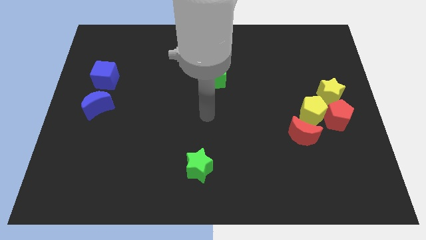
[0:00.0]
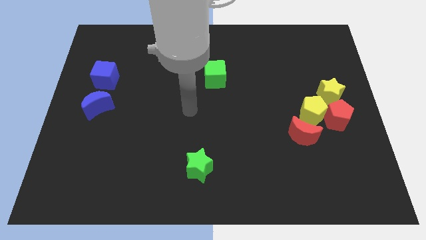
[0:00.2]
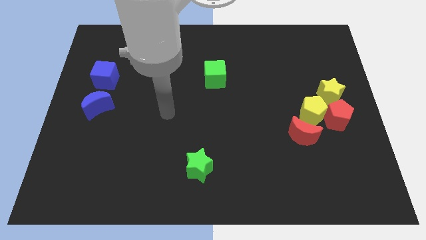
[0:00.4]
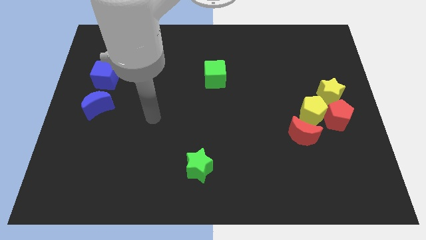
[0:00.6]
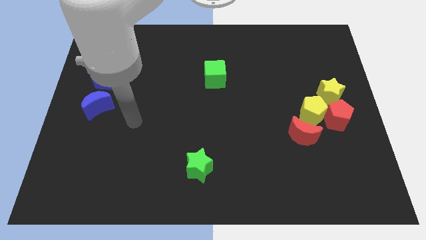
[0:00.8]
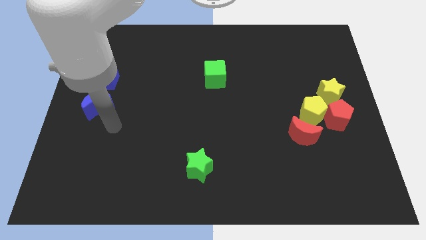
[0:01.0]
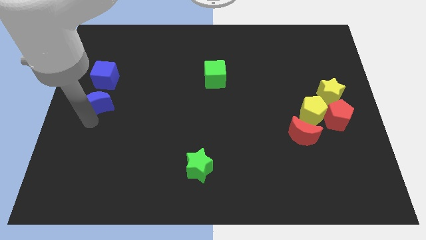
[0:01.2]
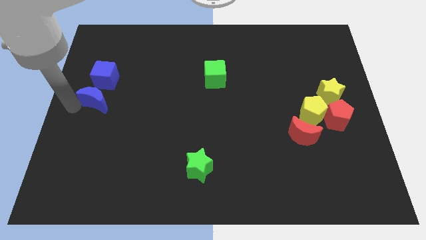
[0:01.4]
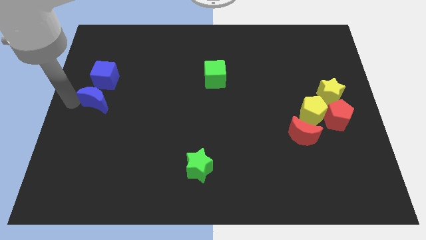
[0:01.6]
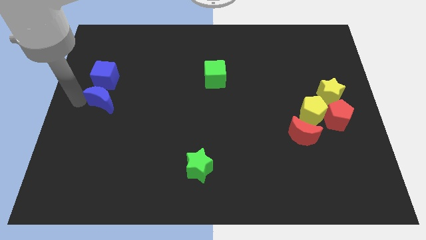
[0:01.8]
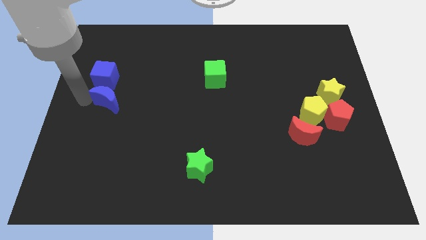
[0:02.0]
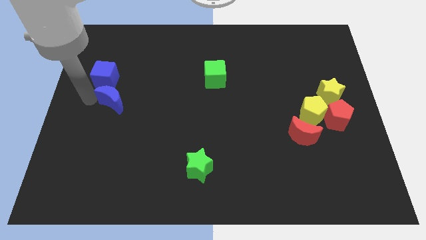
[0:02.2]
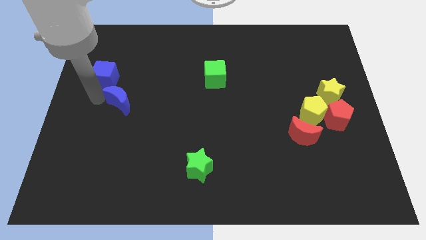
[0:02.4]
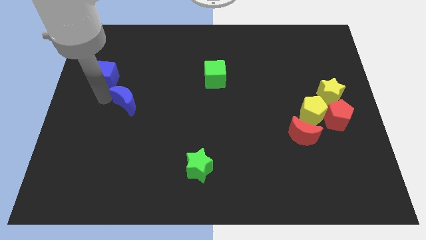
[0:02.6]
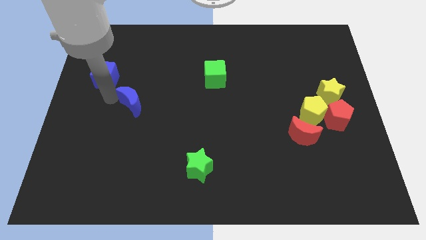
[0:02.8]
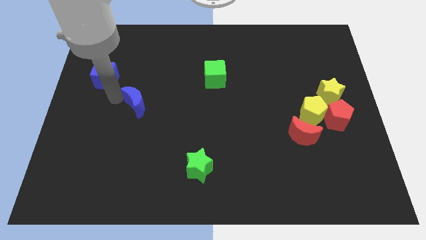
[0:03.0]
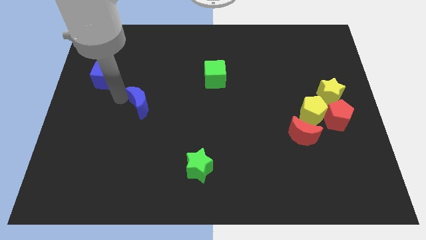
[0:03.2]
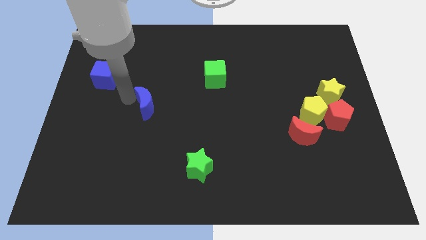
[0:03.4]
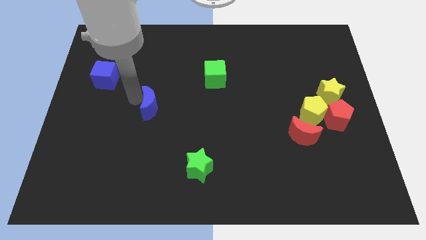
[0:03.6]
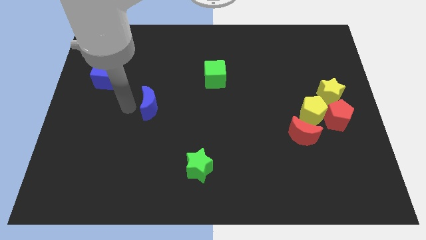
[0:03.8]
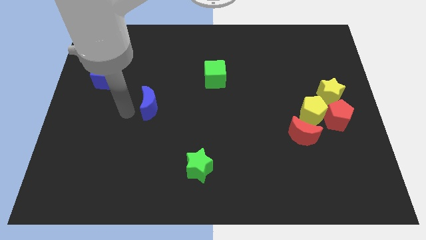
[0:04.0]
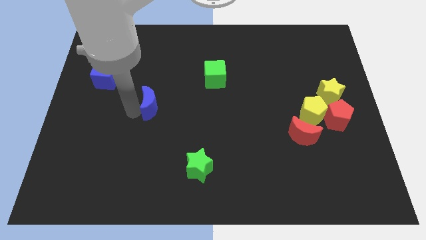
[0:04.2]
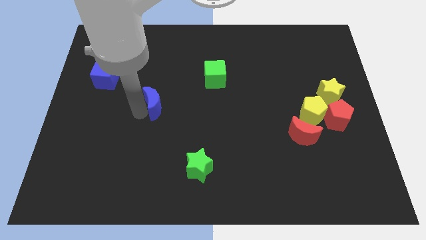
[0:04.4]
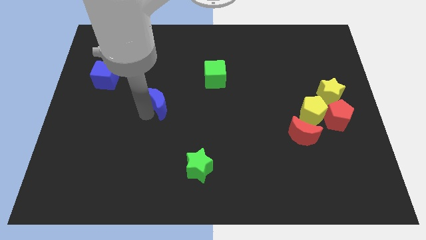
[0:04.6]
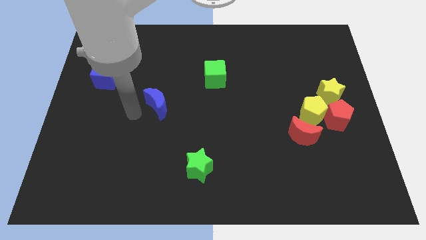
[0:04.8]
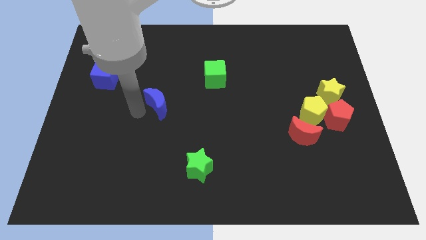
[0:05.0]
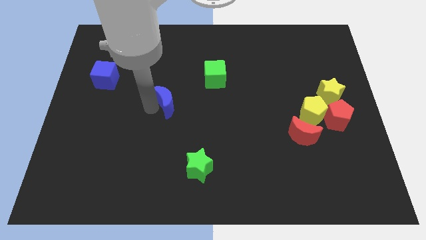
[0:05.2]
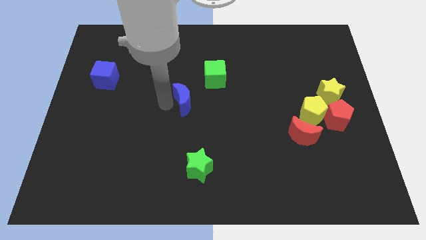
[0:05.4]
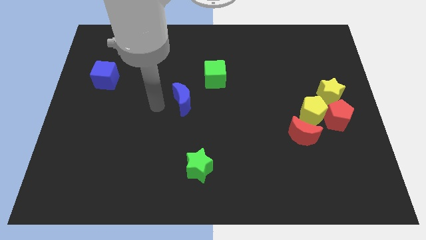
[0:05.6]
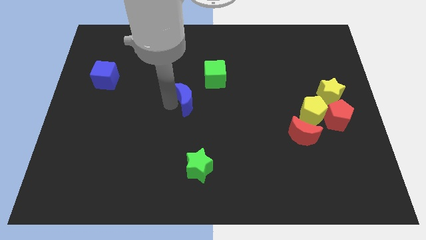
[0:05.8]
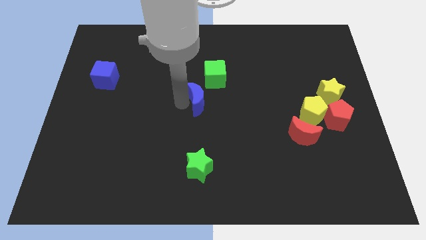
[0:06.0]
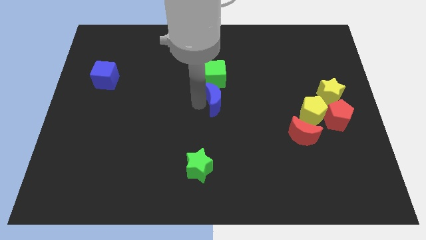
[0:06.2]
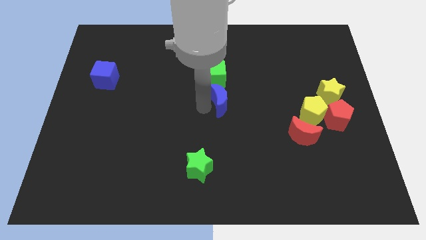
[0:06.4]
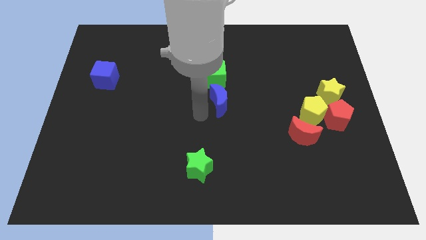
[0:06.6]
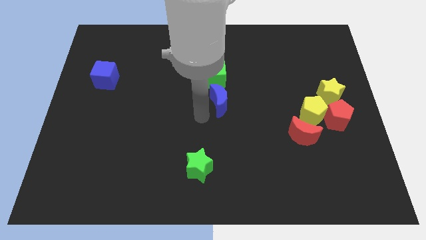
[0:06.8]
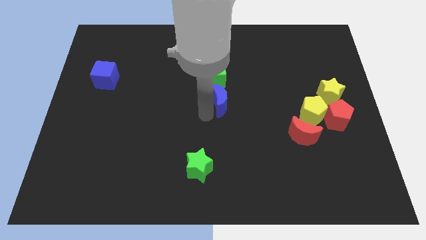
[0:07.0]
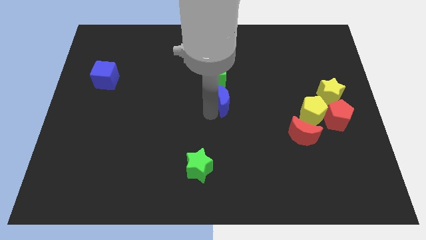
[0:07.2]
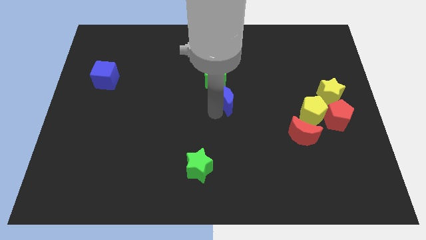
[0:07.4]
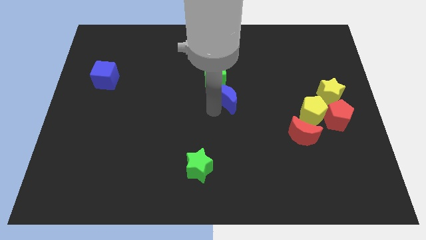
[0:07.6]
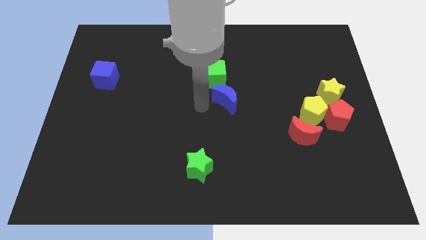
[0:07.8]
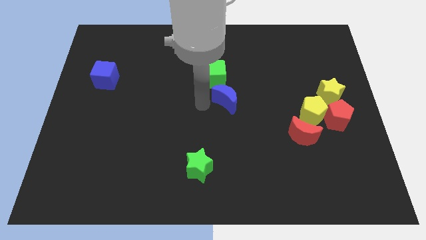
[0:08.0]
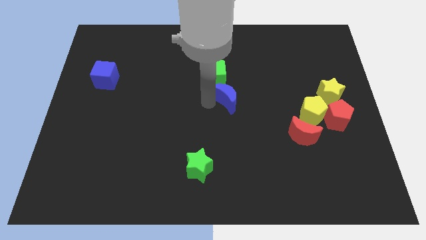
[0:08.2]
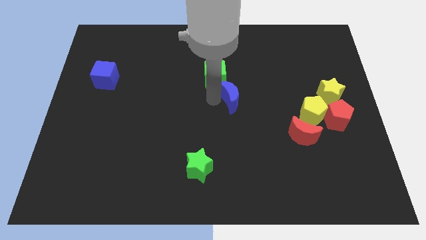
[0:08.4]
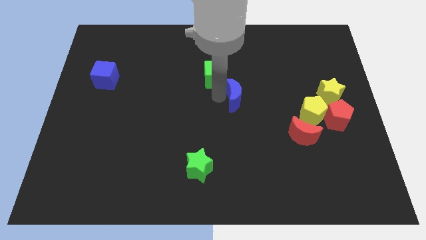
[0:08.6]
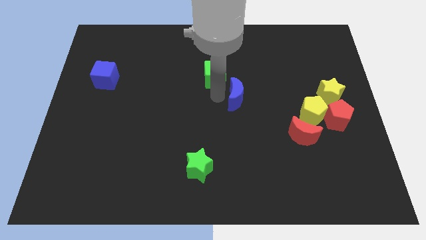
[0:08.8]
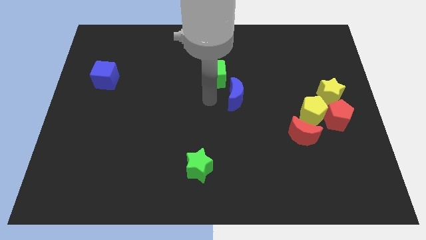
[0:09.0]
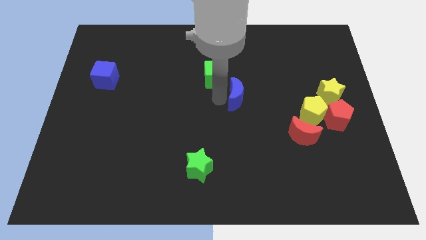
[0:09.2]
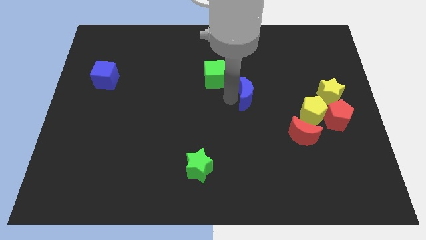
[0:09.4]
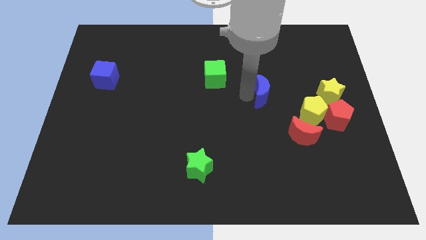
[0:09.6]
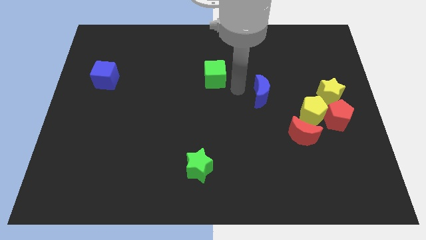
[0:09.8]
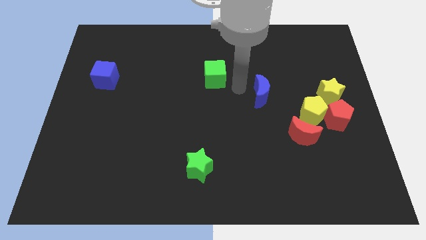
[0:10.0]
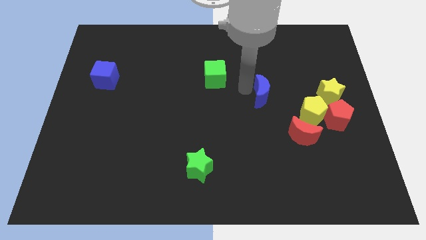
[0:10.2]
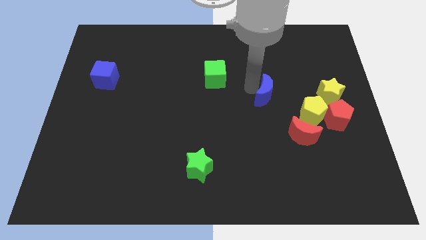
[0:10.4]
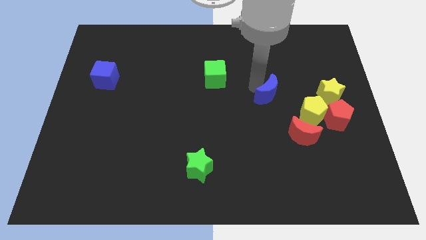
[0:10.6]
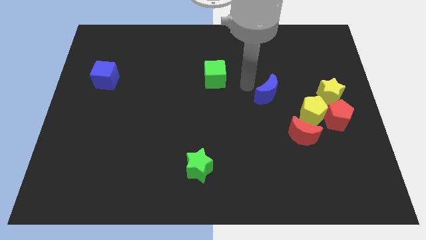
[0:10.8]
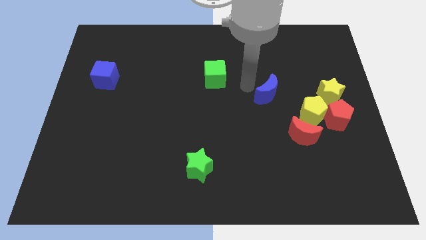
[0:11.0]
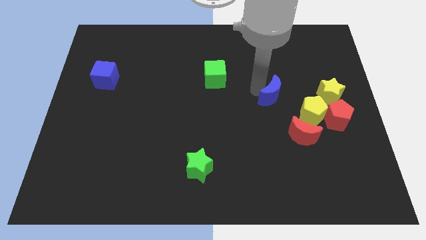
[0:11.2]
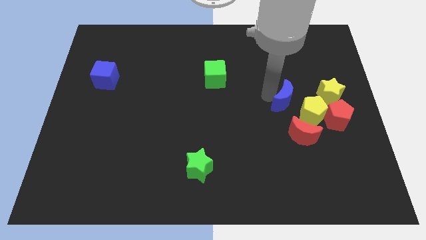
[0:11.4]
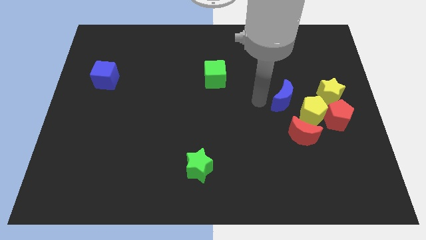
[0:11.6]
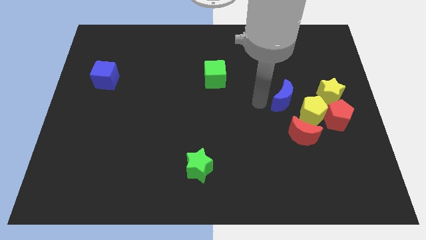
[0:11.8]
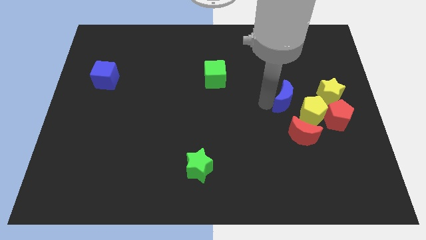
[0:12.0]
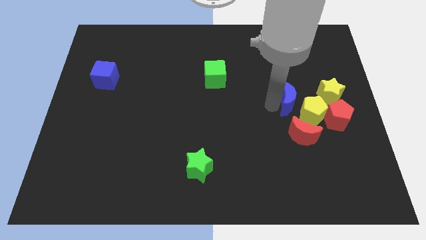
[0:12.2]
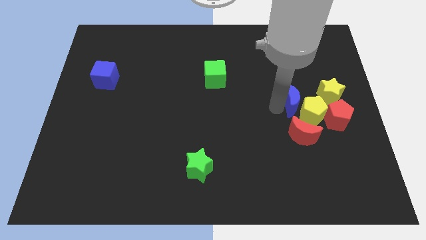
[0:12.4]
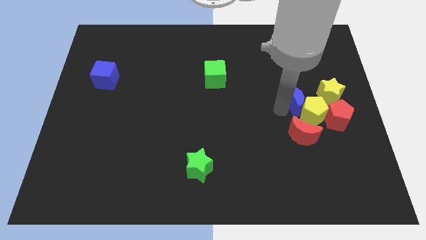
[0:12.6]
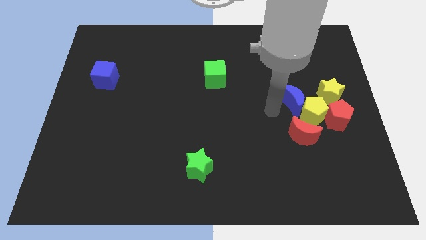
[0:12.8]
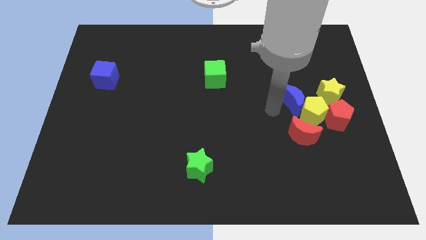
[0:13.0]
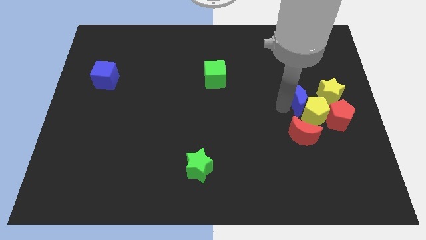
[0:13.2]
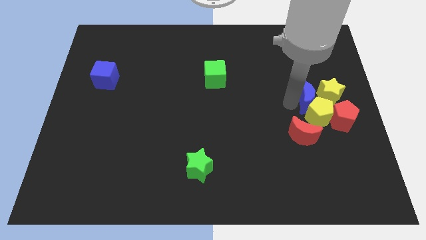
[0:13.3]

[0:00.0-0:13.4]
push the blue moon next to the yellow star

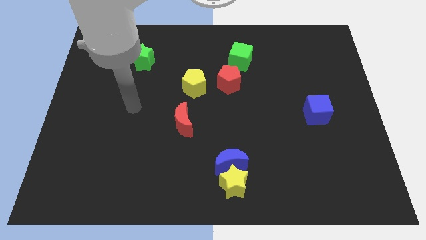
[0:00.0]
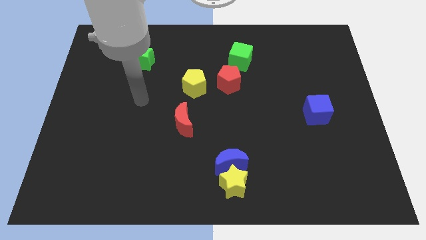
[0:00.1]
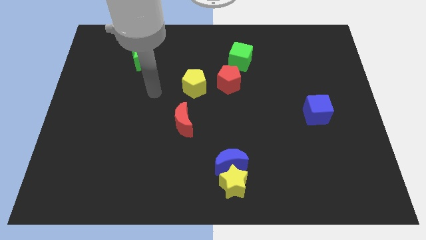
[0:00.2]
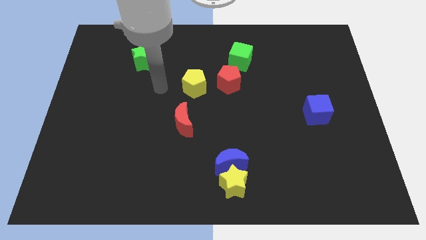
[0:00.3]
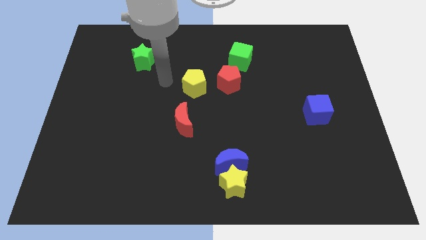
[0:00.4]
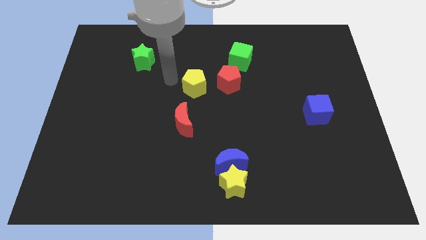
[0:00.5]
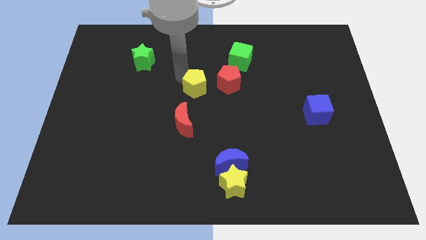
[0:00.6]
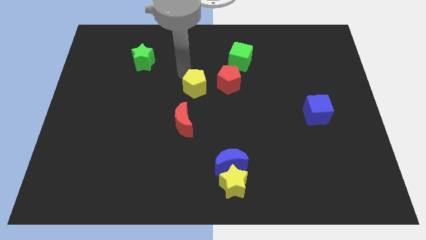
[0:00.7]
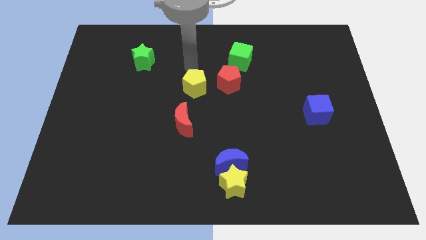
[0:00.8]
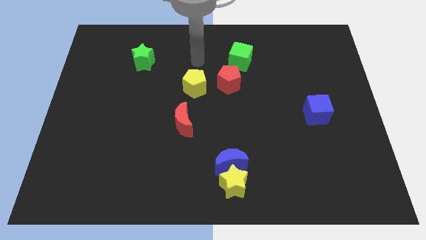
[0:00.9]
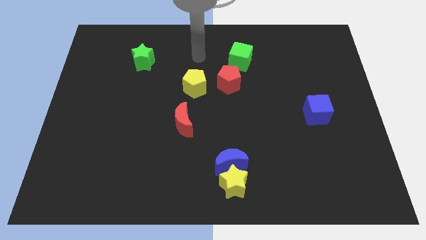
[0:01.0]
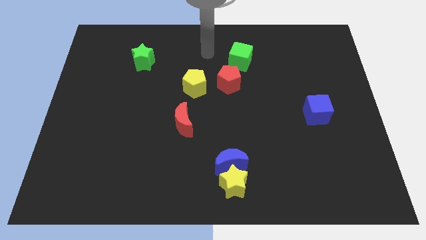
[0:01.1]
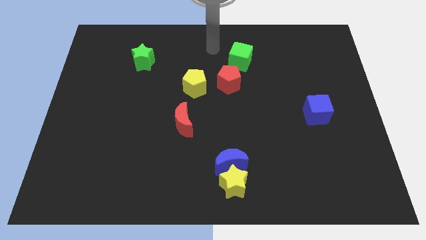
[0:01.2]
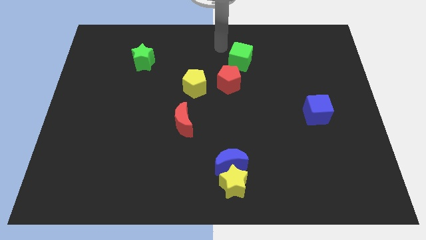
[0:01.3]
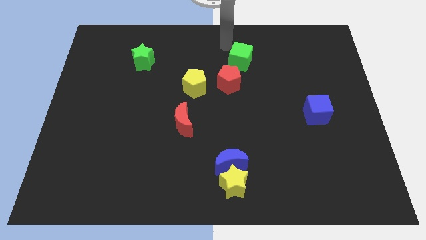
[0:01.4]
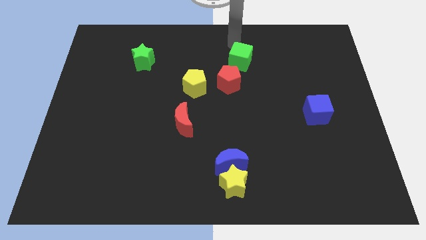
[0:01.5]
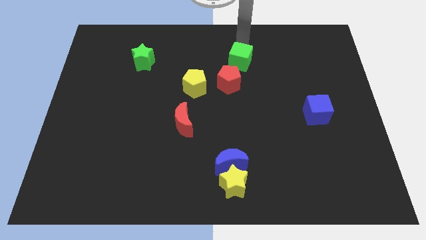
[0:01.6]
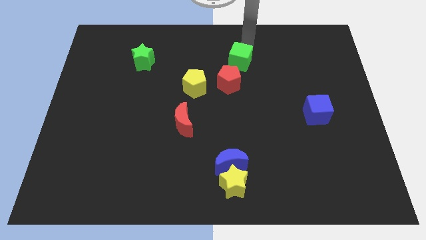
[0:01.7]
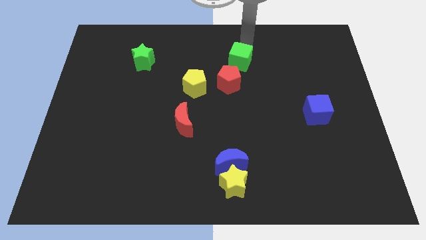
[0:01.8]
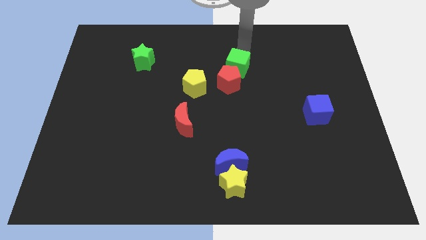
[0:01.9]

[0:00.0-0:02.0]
move the green cube next to the red pentagon
